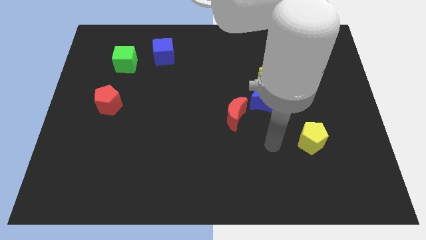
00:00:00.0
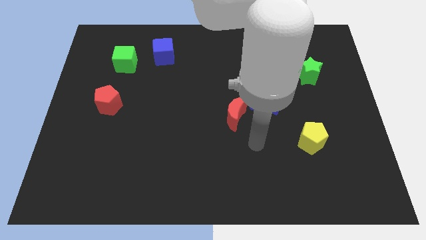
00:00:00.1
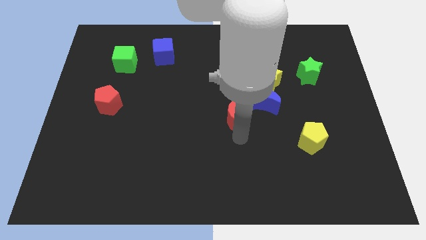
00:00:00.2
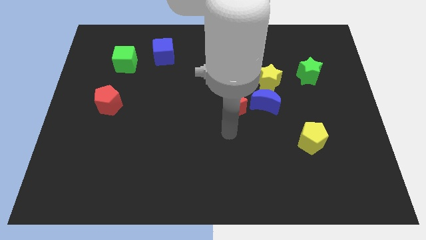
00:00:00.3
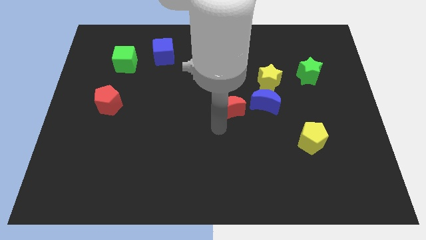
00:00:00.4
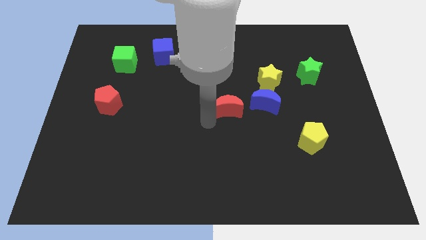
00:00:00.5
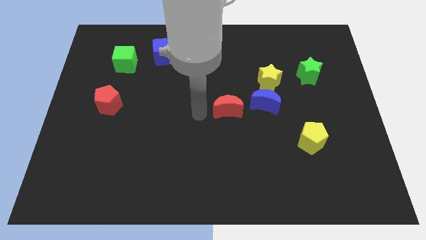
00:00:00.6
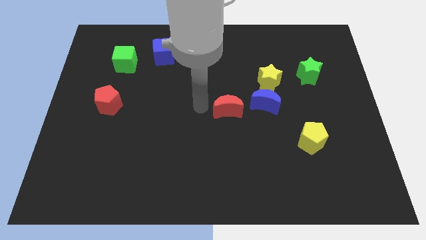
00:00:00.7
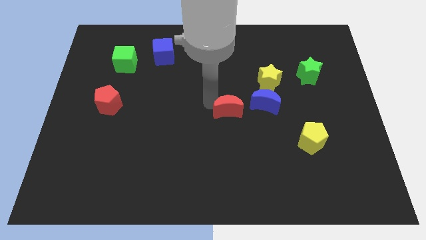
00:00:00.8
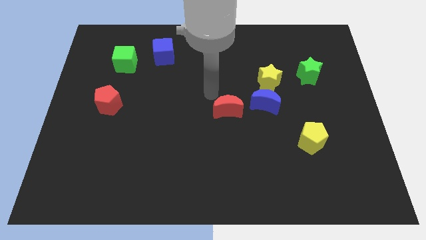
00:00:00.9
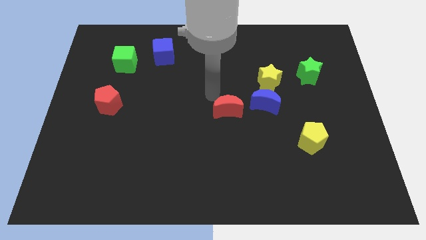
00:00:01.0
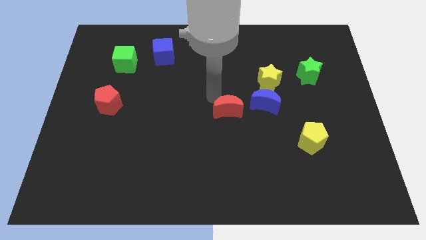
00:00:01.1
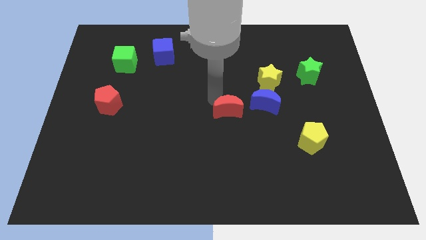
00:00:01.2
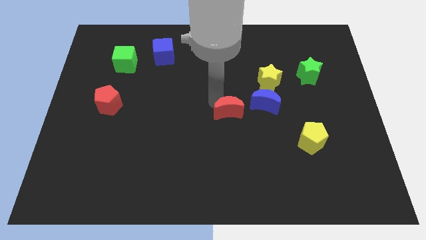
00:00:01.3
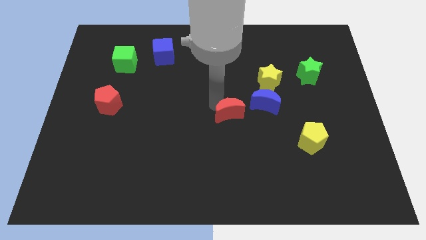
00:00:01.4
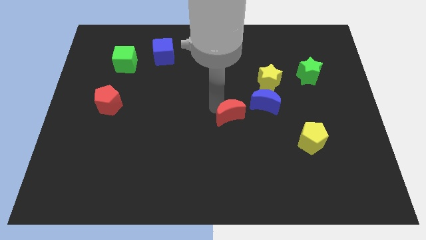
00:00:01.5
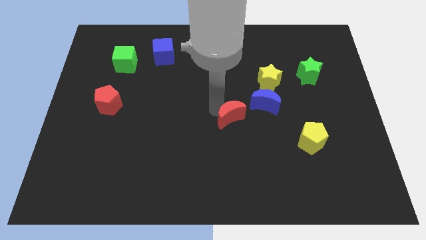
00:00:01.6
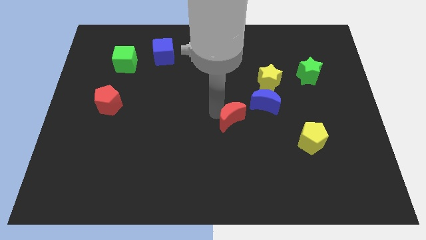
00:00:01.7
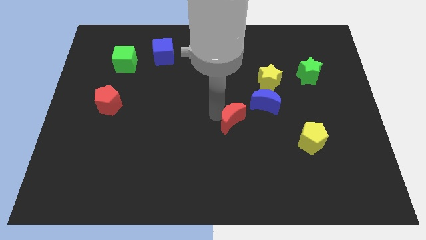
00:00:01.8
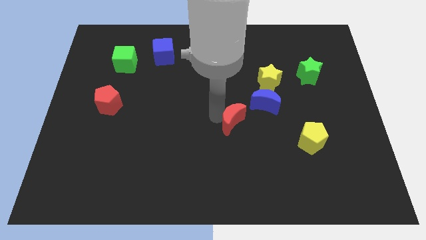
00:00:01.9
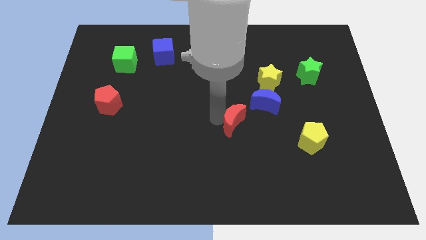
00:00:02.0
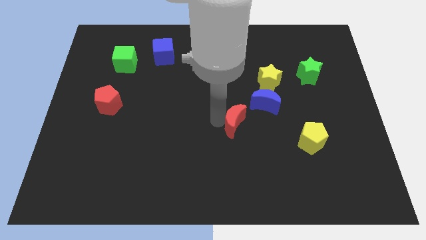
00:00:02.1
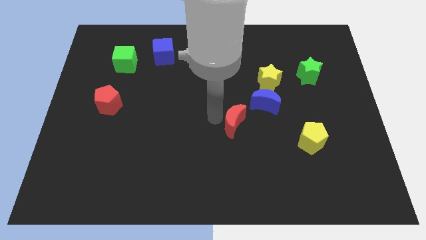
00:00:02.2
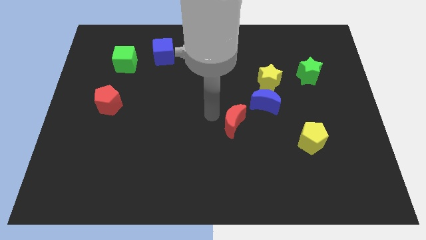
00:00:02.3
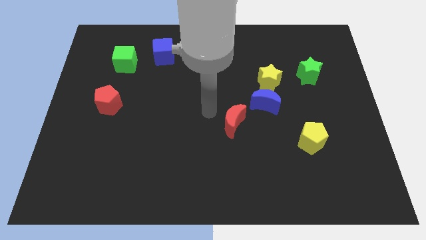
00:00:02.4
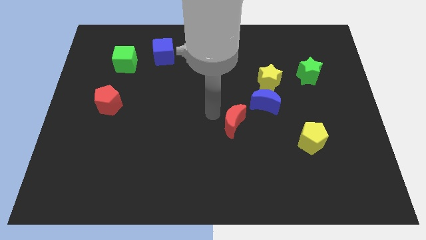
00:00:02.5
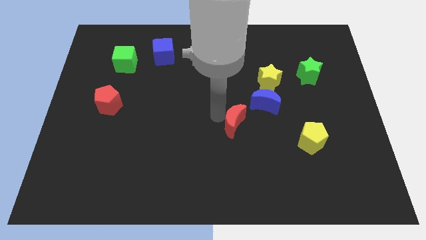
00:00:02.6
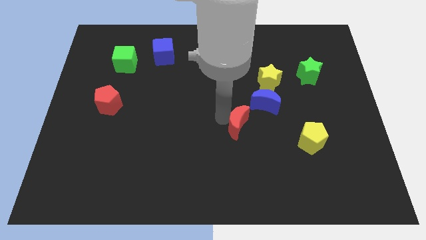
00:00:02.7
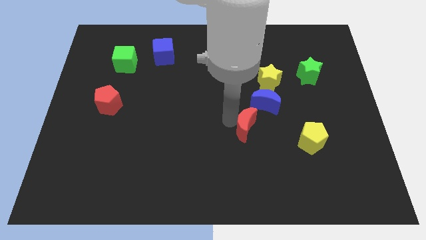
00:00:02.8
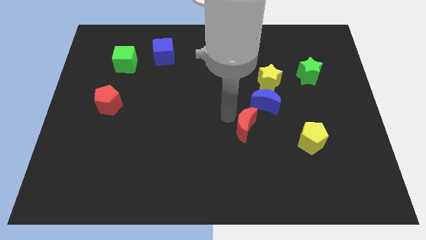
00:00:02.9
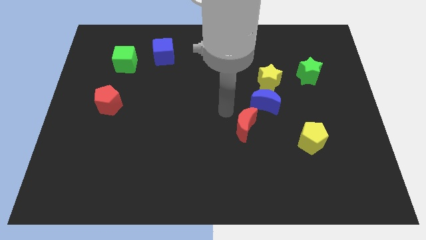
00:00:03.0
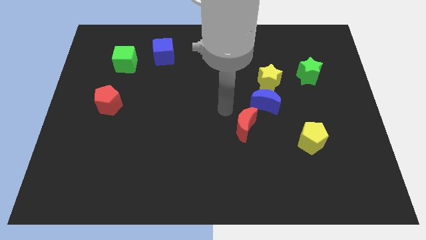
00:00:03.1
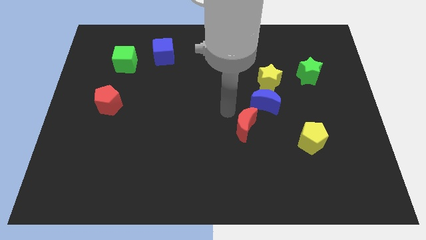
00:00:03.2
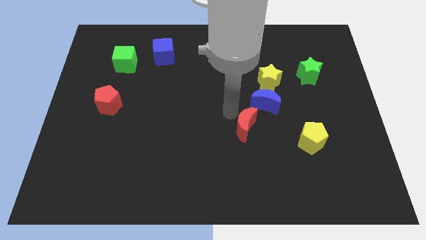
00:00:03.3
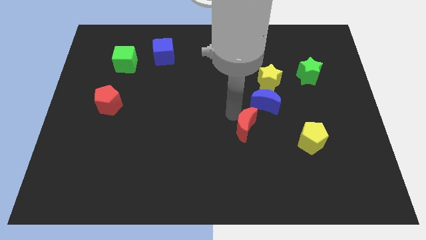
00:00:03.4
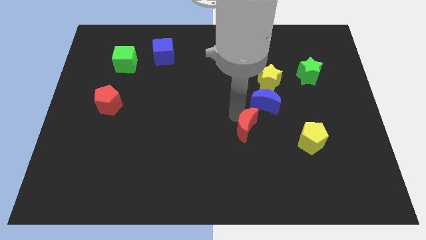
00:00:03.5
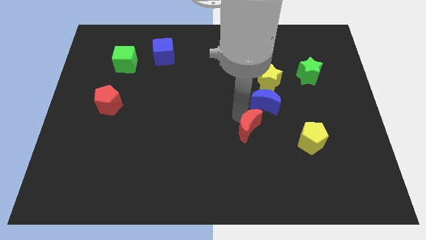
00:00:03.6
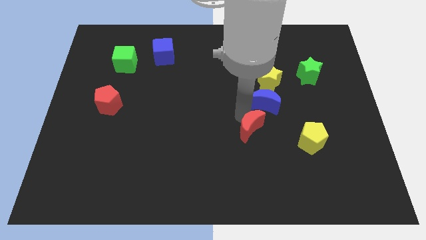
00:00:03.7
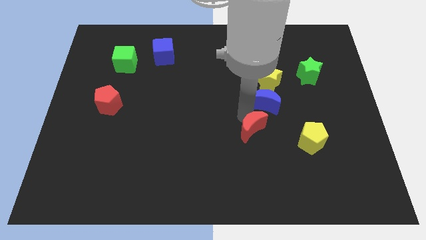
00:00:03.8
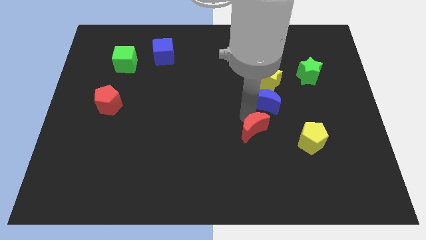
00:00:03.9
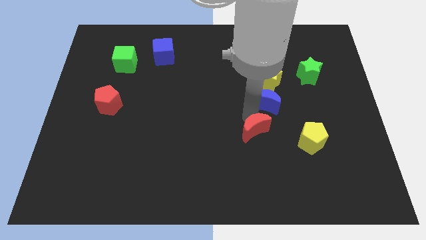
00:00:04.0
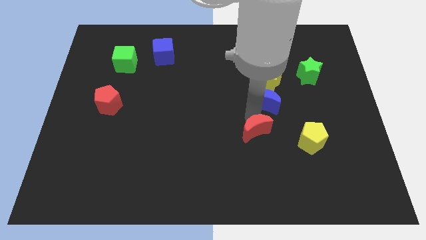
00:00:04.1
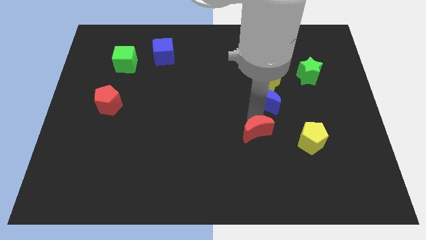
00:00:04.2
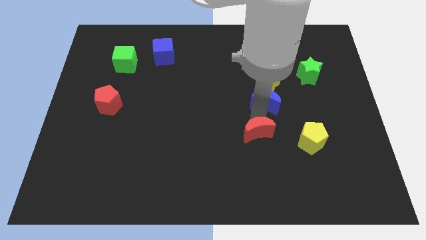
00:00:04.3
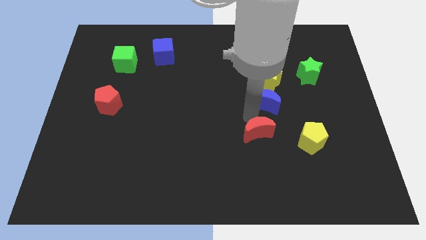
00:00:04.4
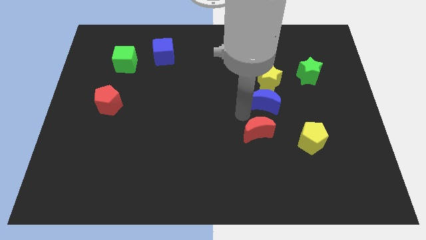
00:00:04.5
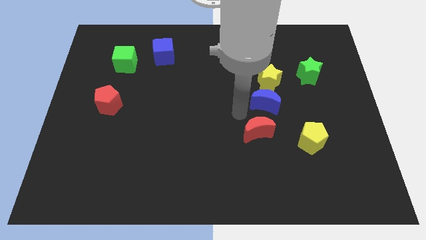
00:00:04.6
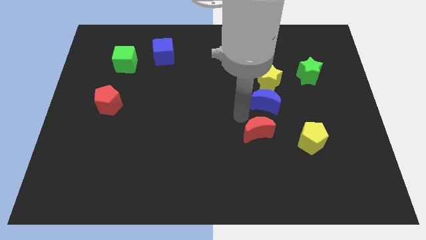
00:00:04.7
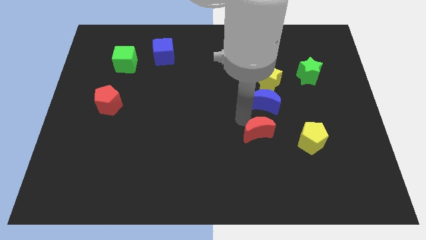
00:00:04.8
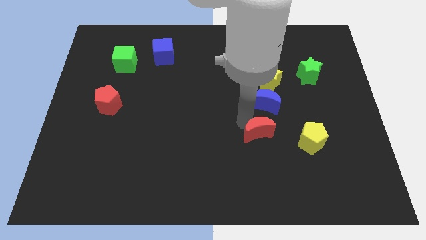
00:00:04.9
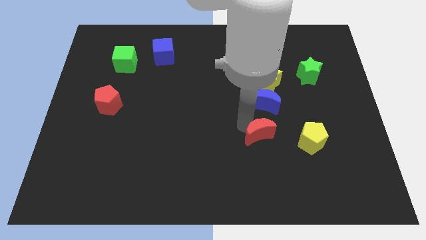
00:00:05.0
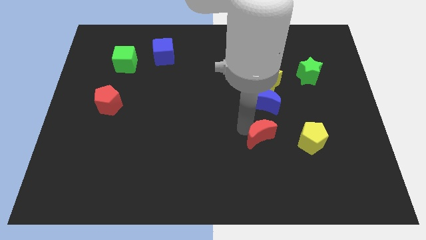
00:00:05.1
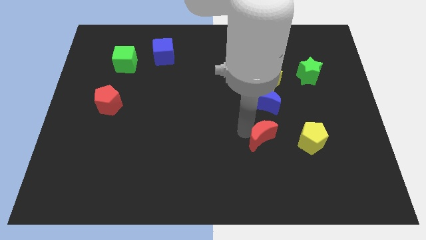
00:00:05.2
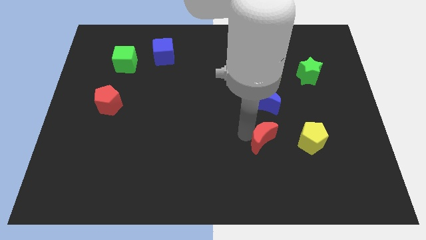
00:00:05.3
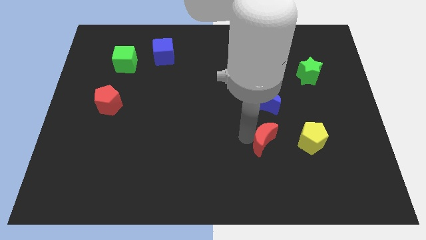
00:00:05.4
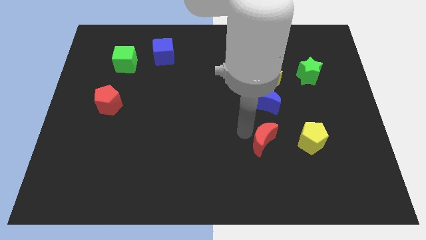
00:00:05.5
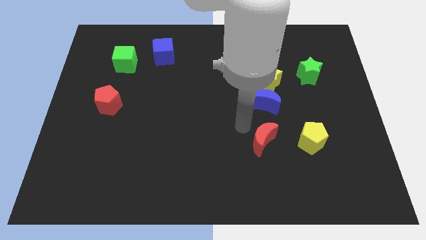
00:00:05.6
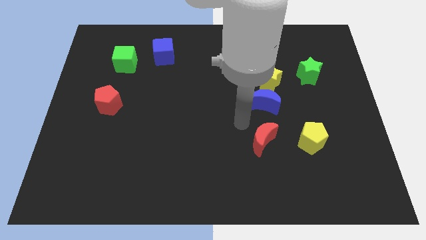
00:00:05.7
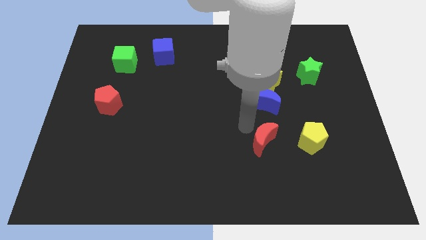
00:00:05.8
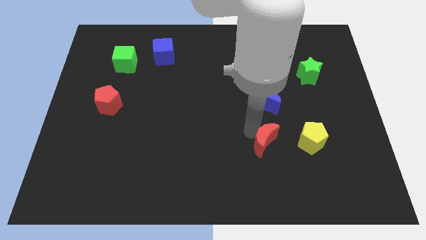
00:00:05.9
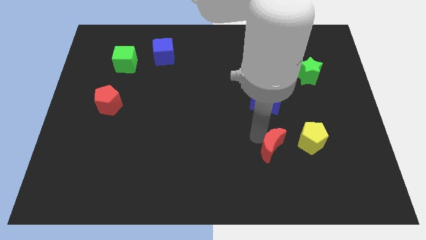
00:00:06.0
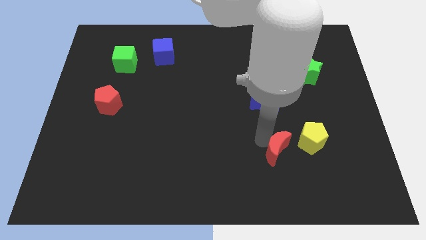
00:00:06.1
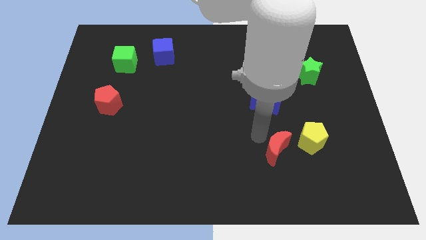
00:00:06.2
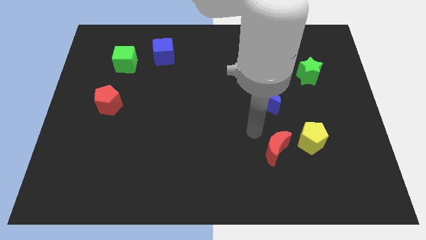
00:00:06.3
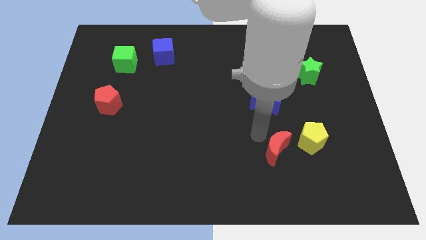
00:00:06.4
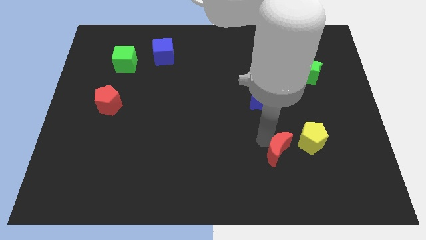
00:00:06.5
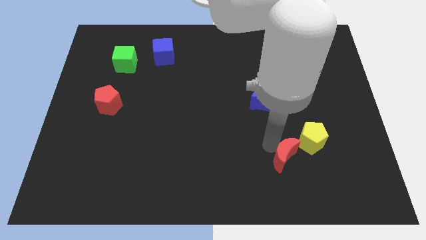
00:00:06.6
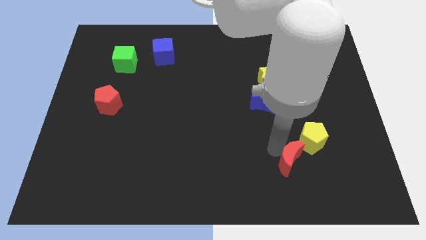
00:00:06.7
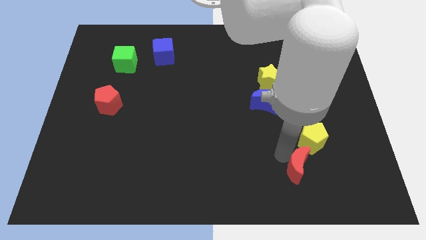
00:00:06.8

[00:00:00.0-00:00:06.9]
push the red moon to the bottom side of the yellow pentagon

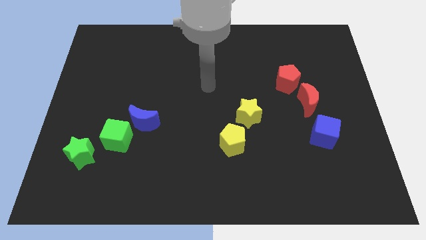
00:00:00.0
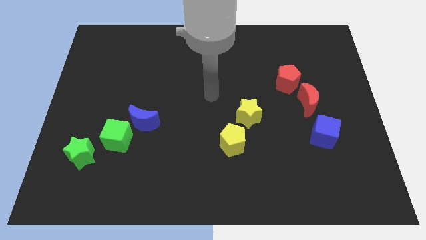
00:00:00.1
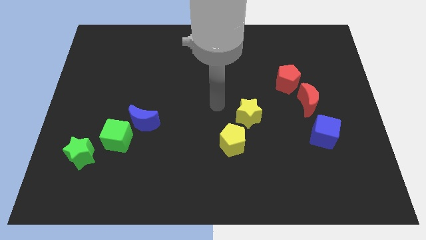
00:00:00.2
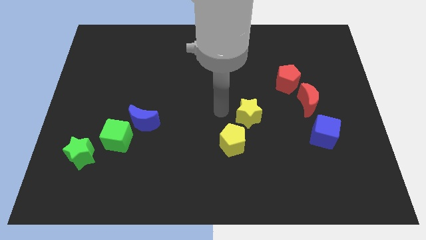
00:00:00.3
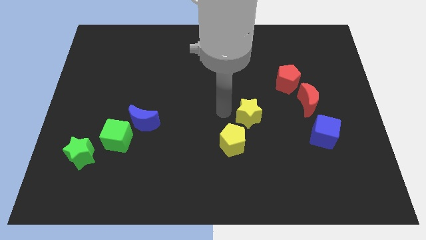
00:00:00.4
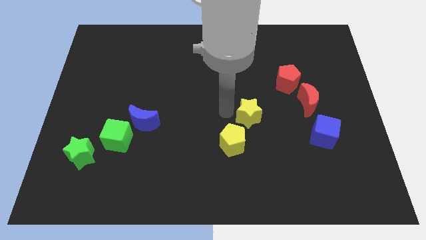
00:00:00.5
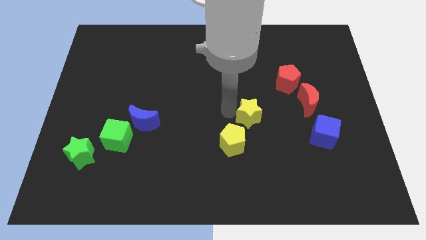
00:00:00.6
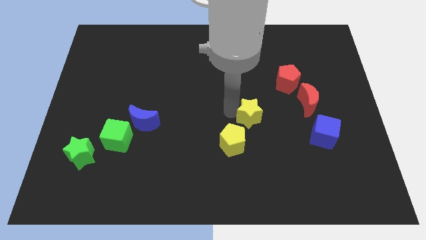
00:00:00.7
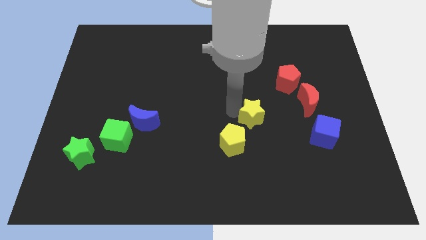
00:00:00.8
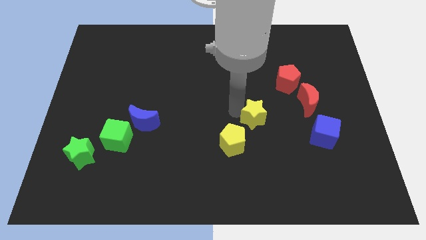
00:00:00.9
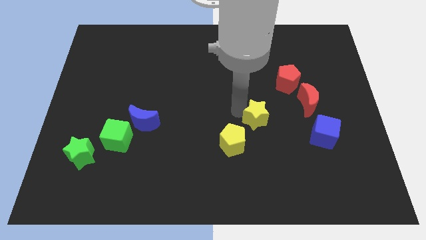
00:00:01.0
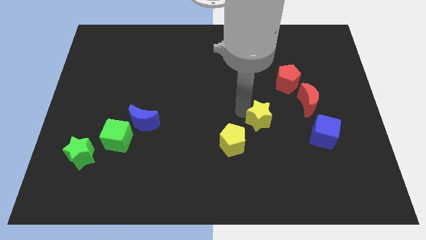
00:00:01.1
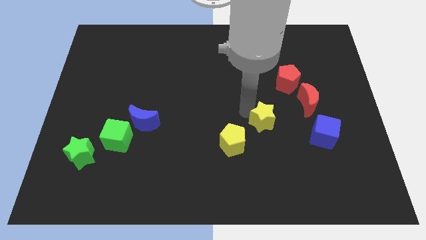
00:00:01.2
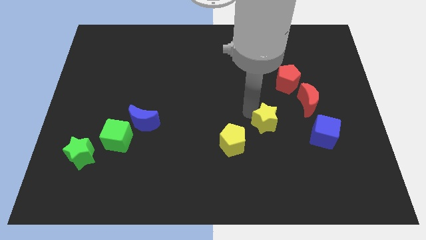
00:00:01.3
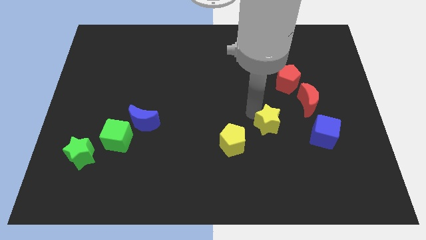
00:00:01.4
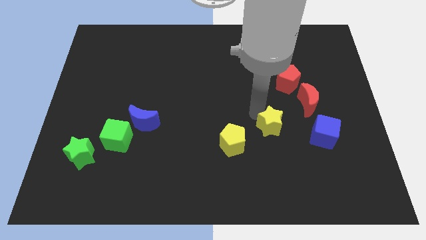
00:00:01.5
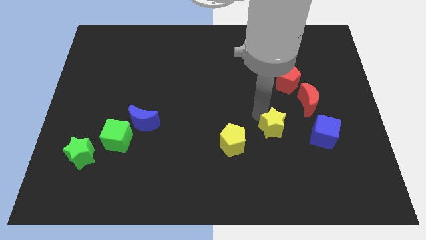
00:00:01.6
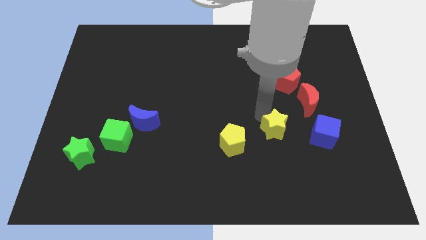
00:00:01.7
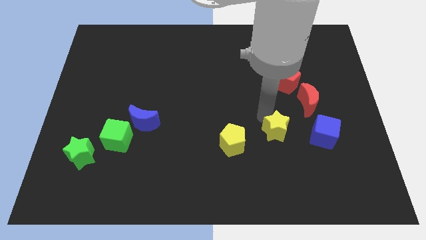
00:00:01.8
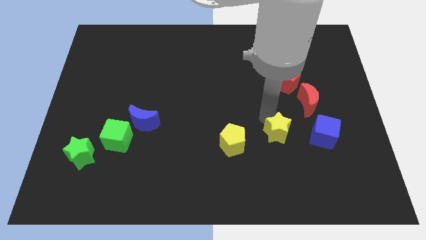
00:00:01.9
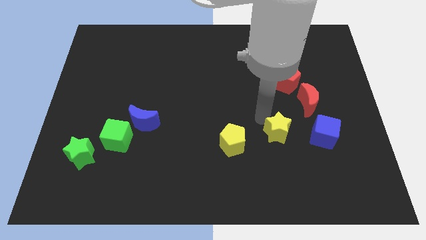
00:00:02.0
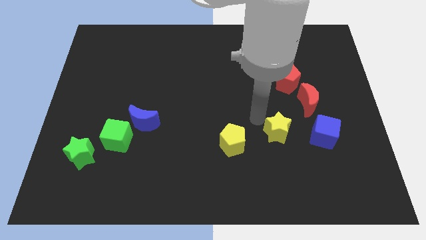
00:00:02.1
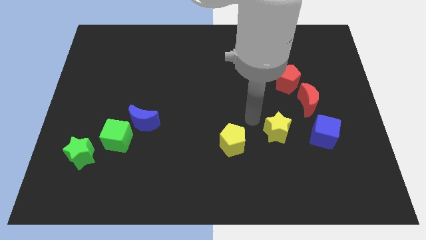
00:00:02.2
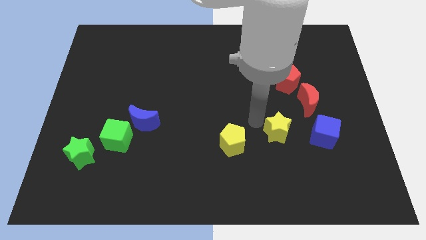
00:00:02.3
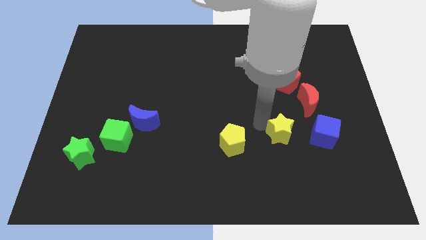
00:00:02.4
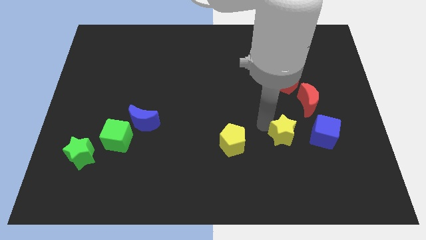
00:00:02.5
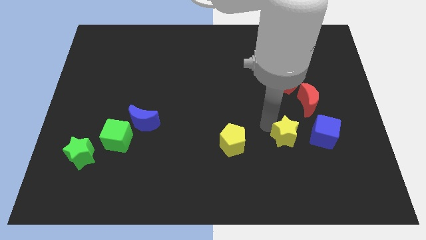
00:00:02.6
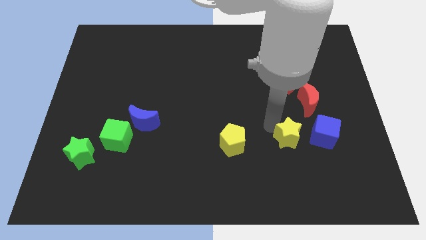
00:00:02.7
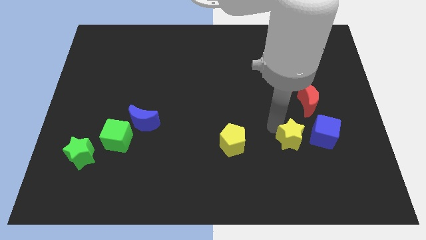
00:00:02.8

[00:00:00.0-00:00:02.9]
put the yellow star to the bottom left side of the blue cube
